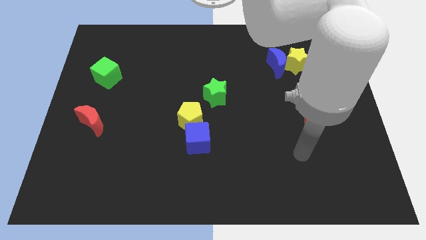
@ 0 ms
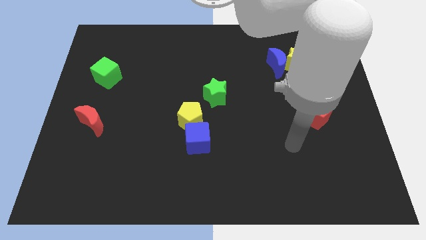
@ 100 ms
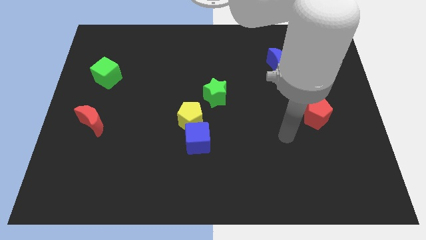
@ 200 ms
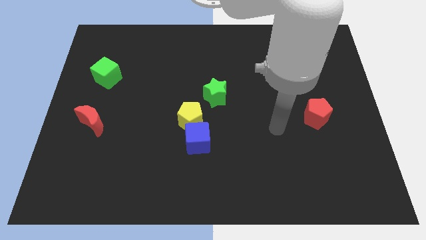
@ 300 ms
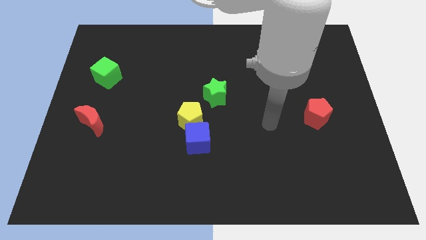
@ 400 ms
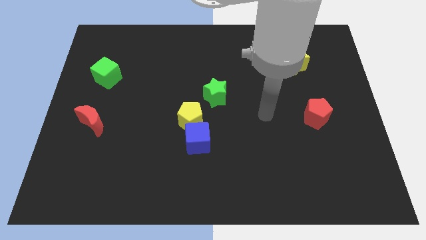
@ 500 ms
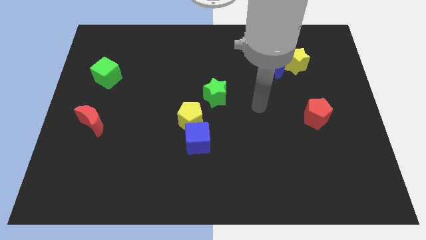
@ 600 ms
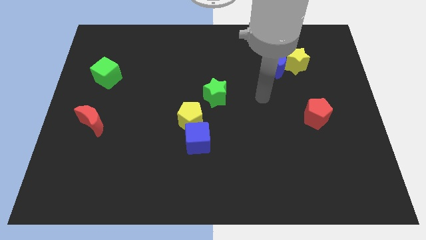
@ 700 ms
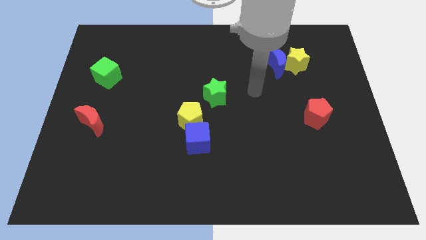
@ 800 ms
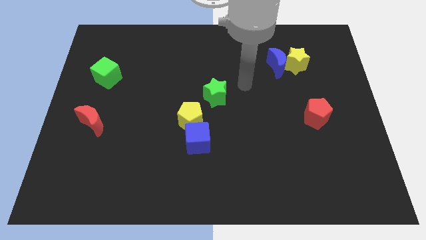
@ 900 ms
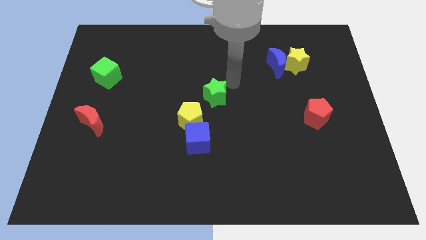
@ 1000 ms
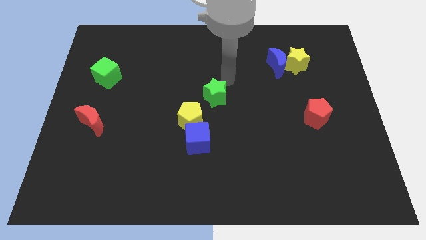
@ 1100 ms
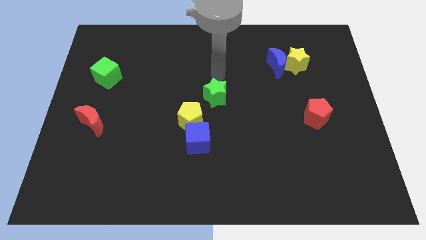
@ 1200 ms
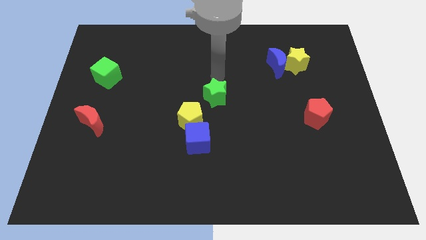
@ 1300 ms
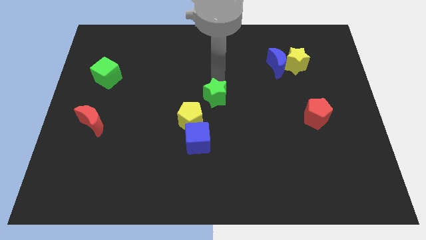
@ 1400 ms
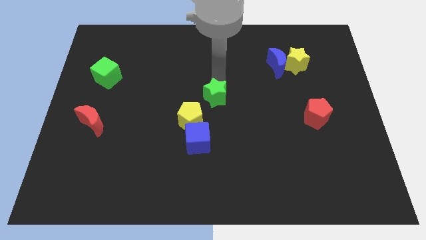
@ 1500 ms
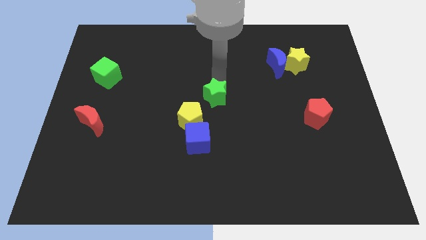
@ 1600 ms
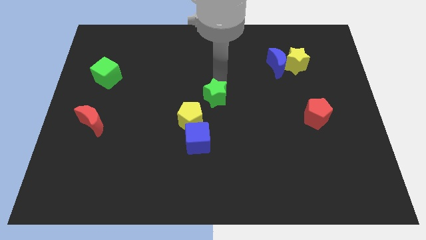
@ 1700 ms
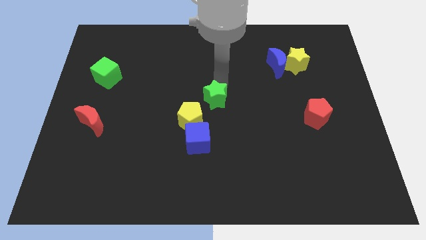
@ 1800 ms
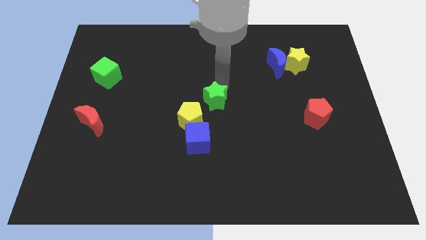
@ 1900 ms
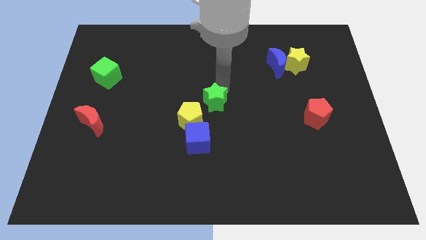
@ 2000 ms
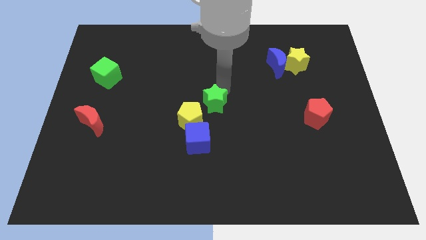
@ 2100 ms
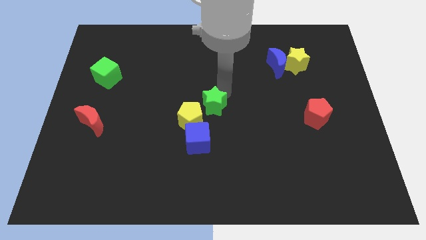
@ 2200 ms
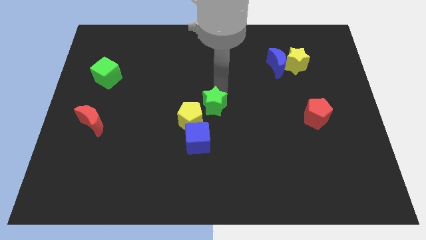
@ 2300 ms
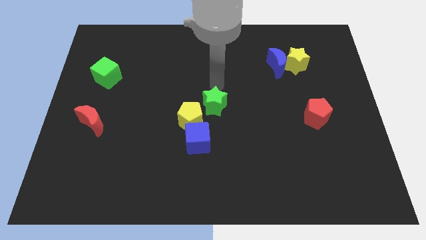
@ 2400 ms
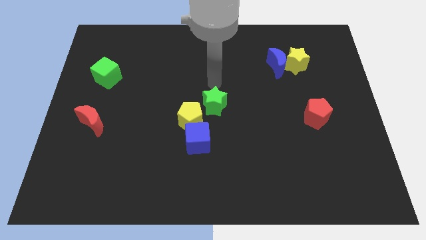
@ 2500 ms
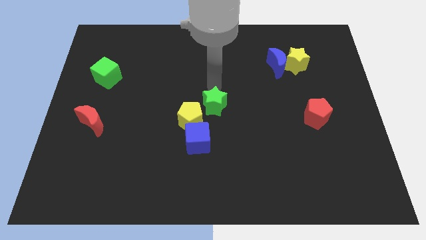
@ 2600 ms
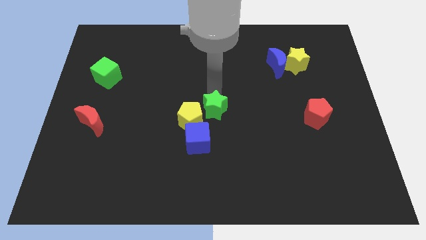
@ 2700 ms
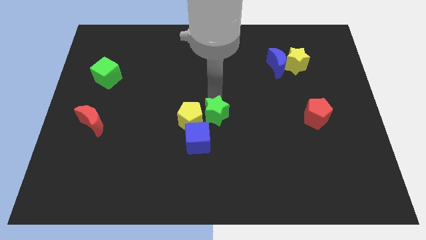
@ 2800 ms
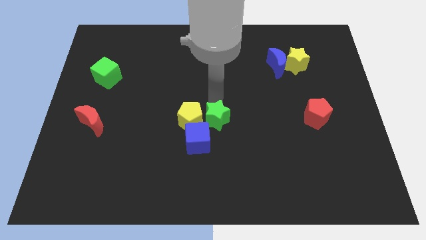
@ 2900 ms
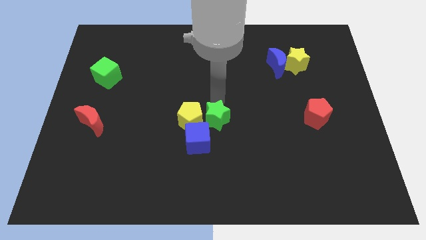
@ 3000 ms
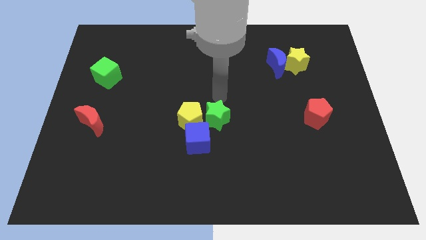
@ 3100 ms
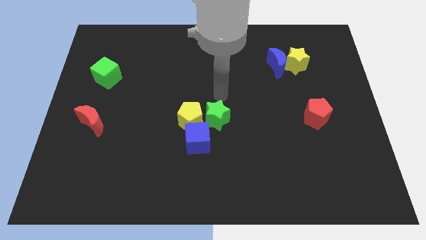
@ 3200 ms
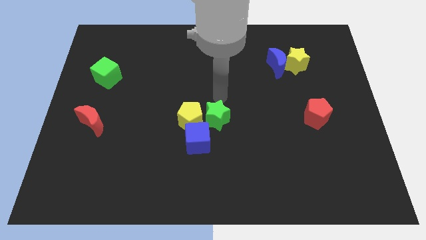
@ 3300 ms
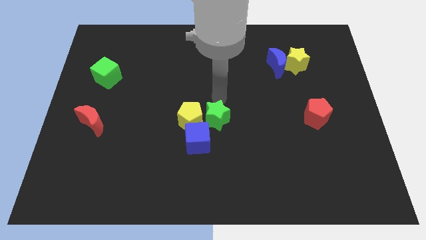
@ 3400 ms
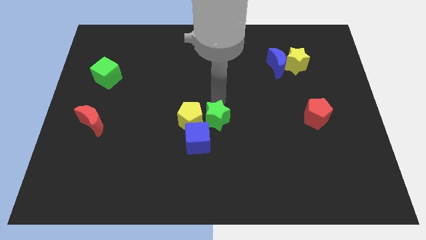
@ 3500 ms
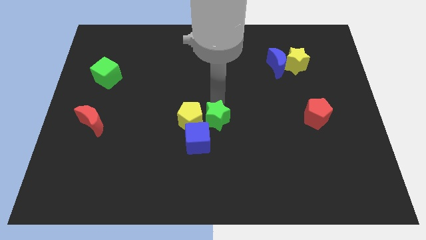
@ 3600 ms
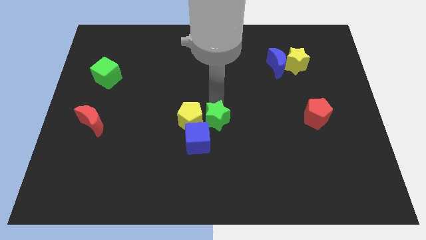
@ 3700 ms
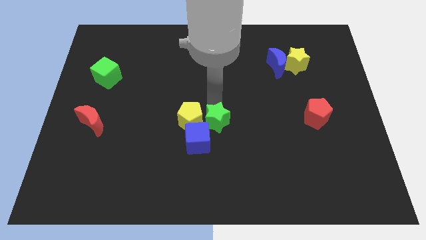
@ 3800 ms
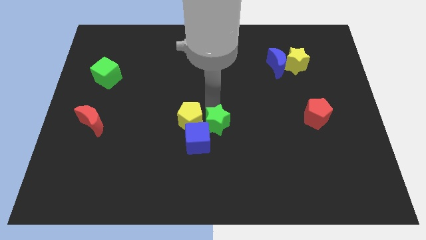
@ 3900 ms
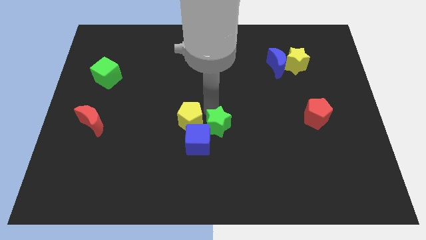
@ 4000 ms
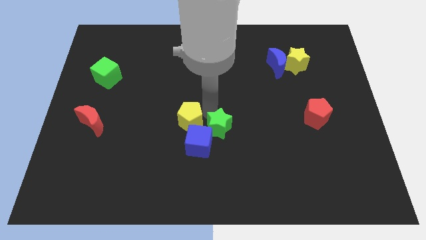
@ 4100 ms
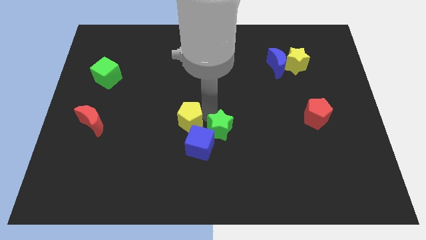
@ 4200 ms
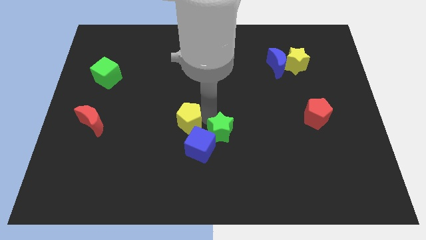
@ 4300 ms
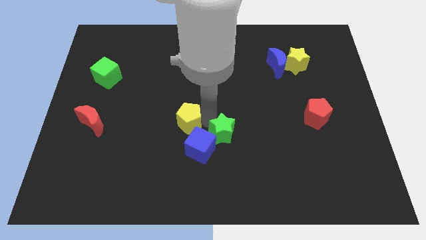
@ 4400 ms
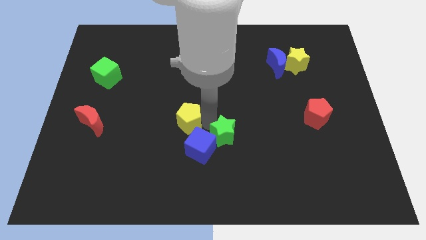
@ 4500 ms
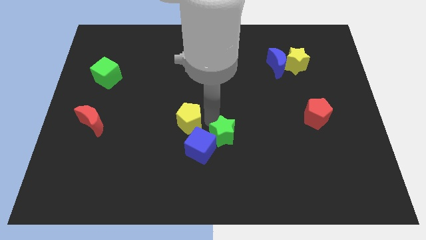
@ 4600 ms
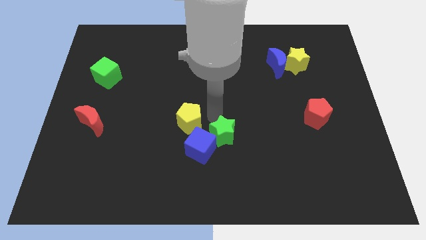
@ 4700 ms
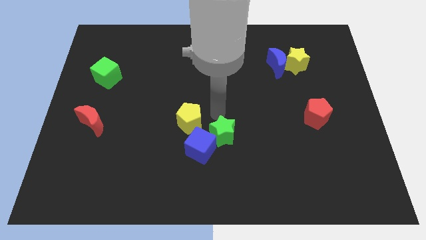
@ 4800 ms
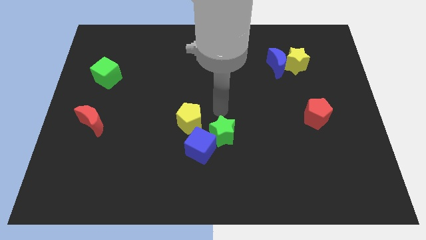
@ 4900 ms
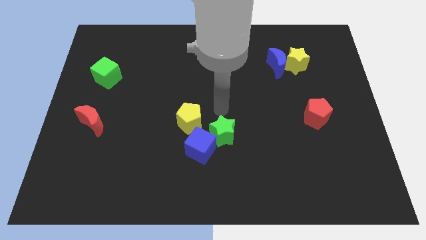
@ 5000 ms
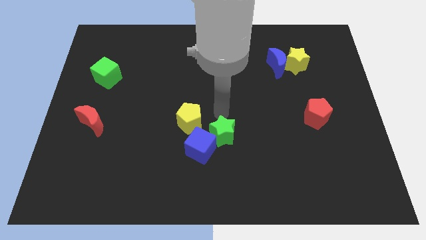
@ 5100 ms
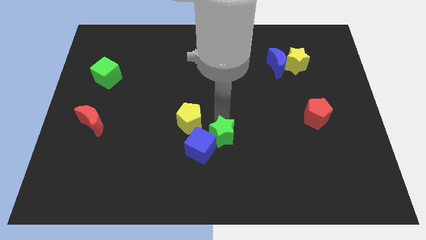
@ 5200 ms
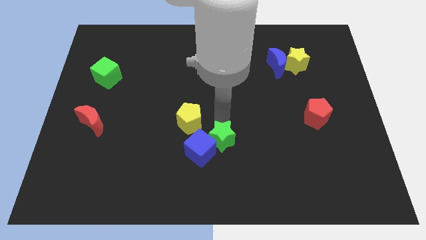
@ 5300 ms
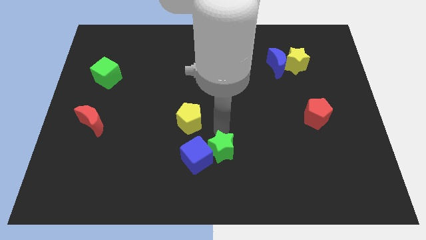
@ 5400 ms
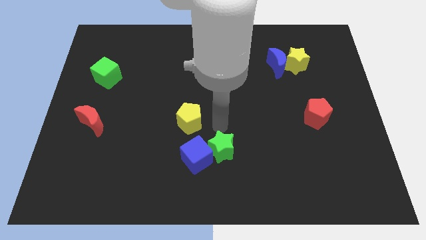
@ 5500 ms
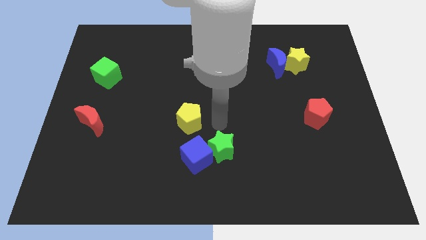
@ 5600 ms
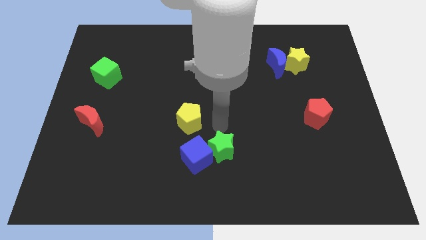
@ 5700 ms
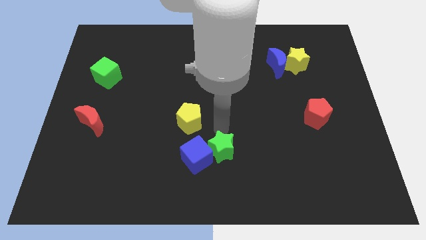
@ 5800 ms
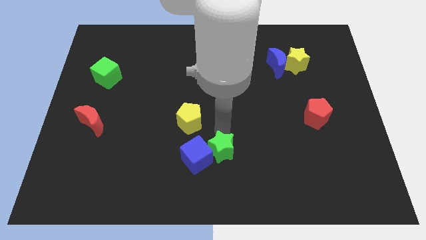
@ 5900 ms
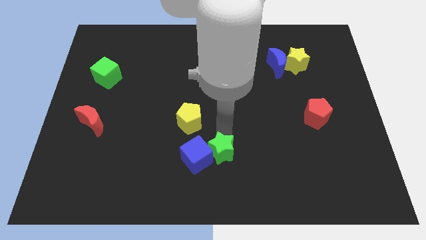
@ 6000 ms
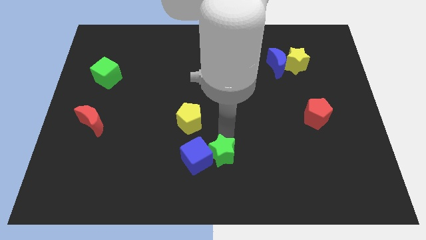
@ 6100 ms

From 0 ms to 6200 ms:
slide the green star to the bottom

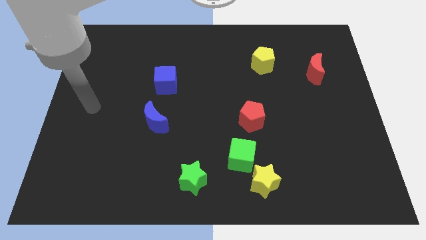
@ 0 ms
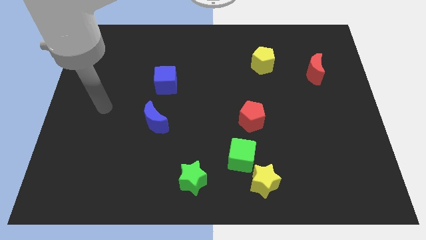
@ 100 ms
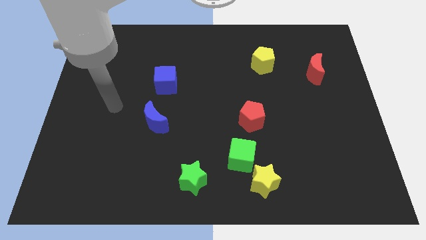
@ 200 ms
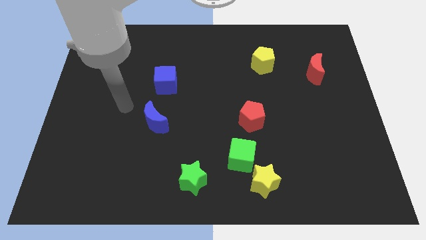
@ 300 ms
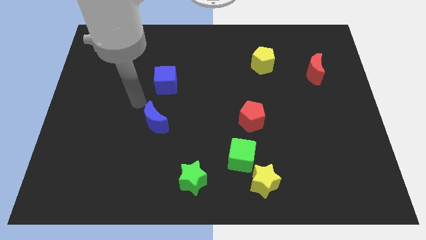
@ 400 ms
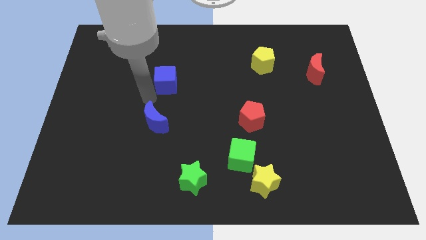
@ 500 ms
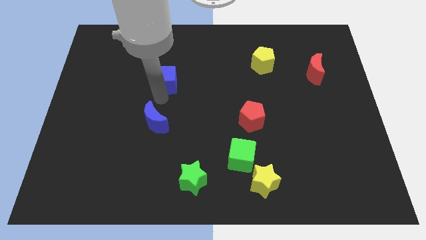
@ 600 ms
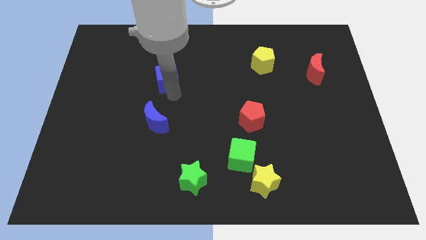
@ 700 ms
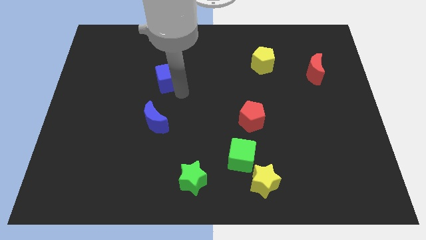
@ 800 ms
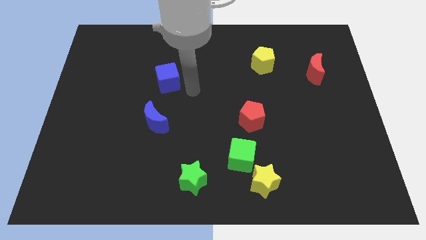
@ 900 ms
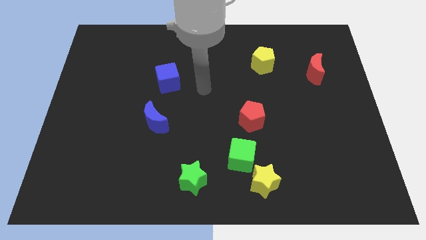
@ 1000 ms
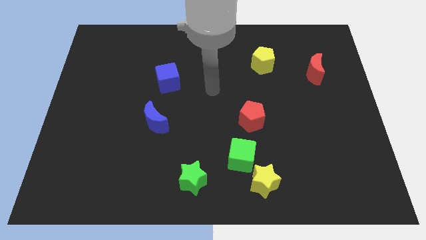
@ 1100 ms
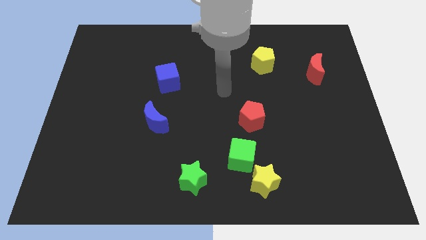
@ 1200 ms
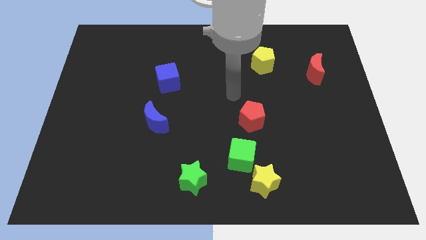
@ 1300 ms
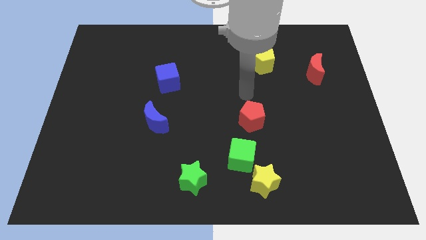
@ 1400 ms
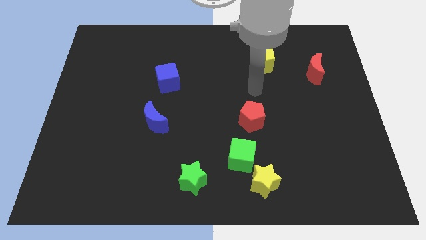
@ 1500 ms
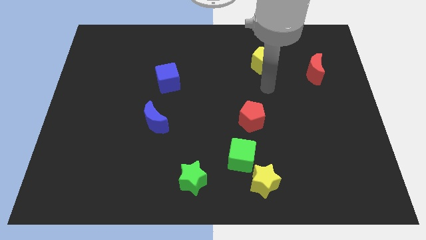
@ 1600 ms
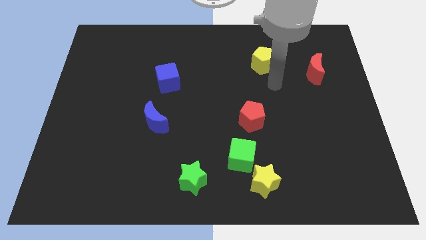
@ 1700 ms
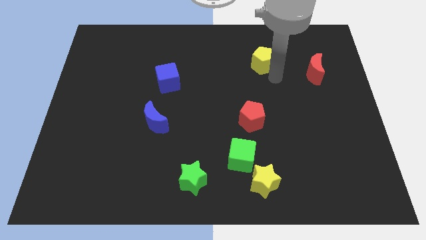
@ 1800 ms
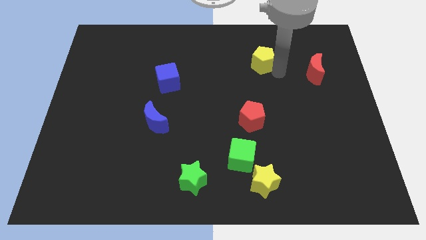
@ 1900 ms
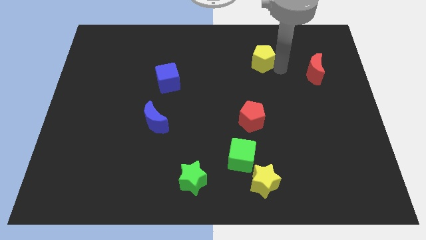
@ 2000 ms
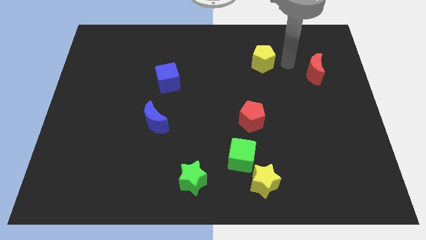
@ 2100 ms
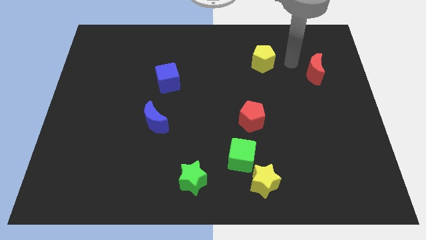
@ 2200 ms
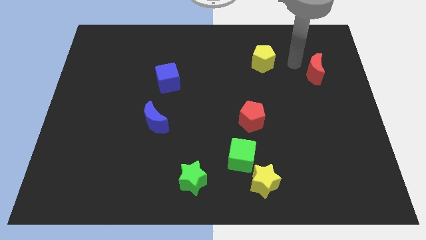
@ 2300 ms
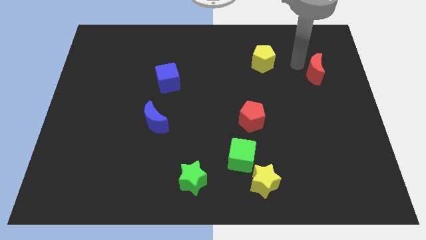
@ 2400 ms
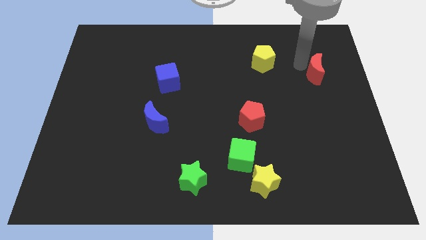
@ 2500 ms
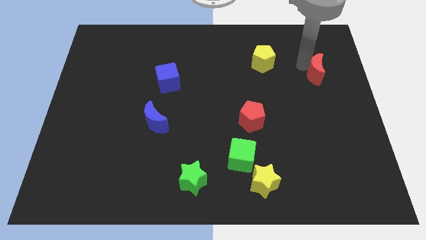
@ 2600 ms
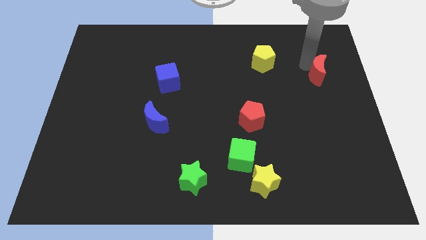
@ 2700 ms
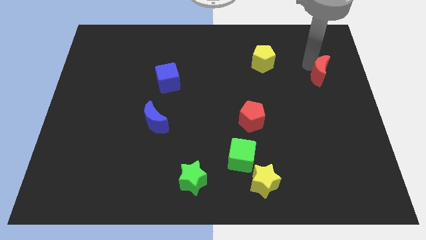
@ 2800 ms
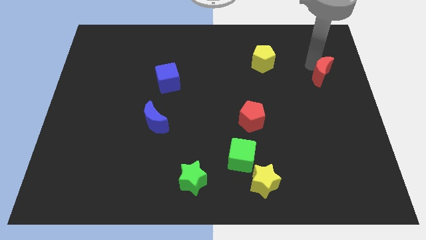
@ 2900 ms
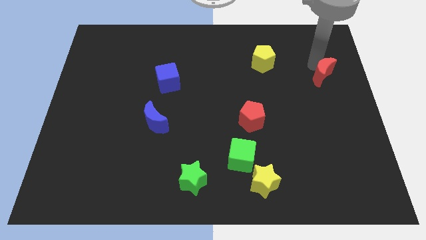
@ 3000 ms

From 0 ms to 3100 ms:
put the red moon to the center right
